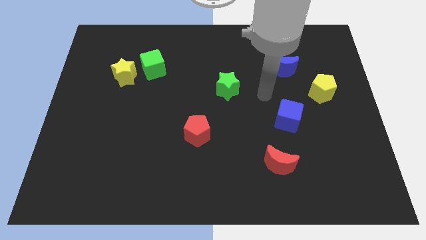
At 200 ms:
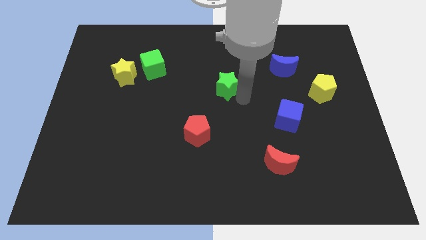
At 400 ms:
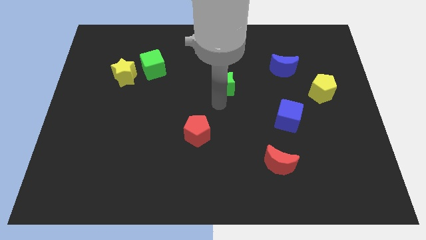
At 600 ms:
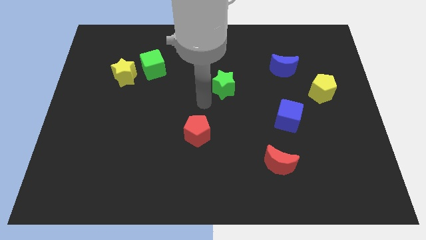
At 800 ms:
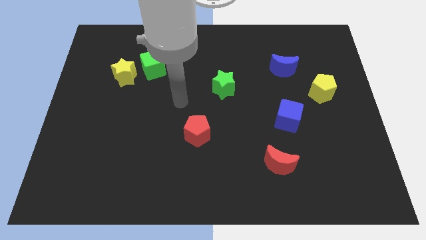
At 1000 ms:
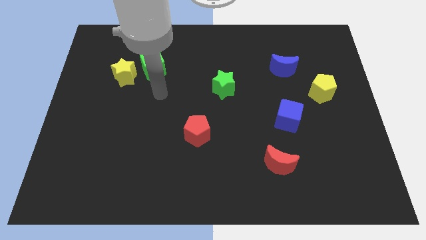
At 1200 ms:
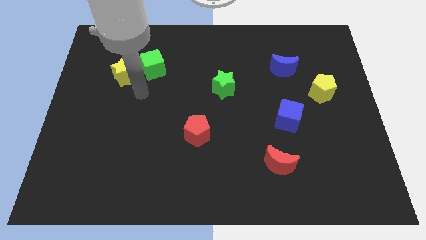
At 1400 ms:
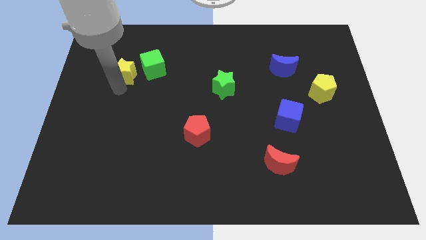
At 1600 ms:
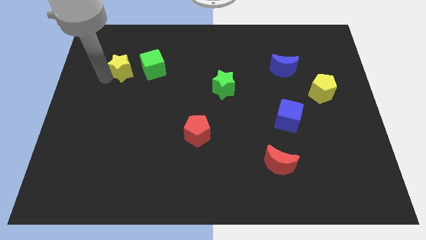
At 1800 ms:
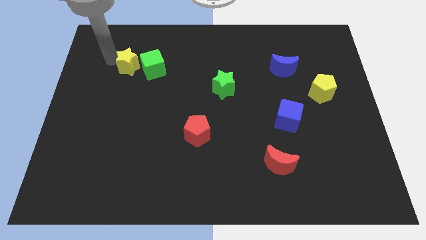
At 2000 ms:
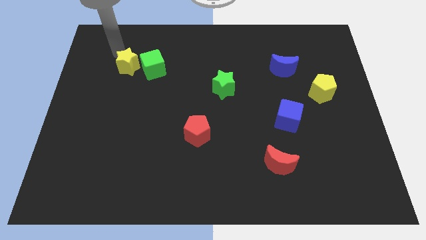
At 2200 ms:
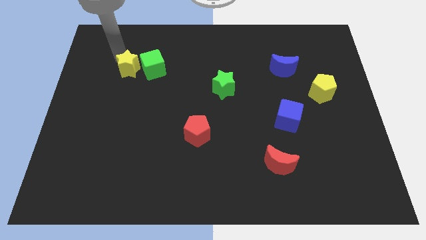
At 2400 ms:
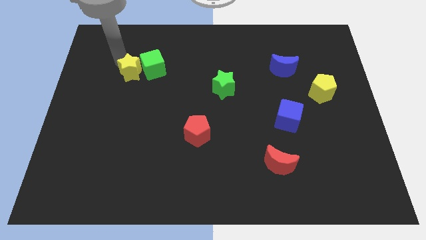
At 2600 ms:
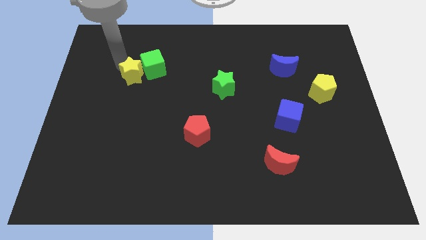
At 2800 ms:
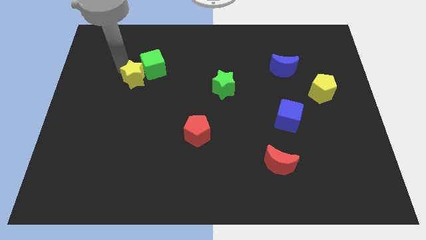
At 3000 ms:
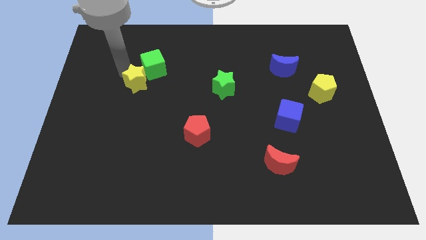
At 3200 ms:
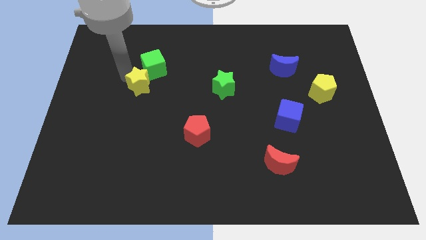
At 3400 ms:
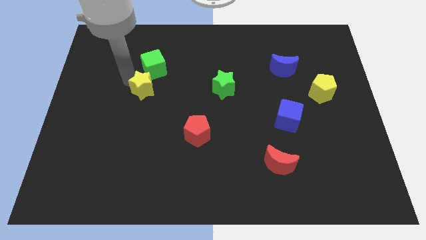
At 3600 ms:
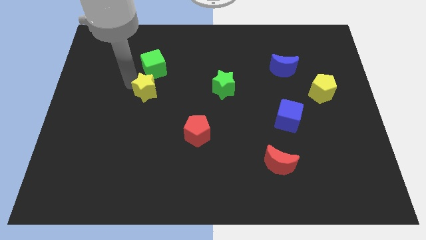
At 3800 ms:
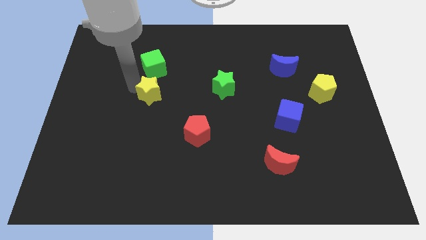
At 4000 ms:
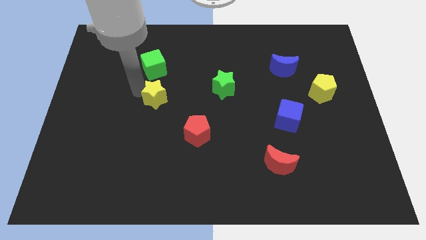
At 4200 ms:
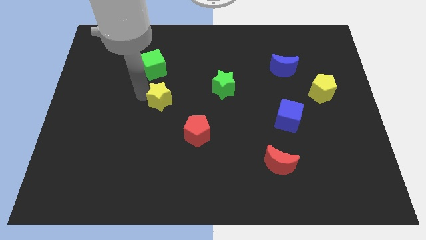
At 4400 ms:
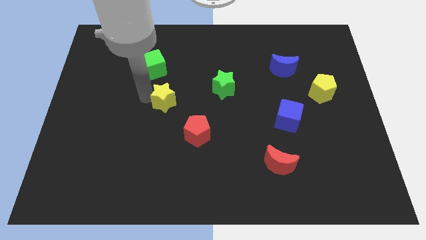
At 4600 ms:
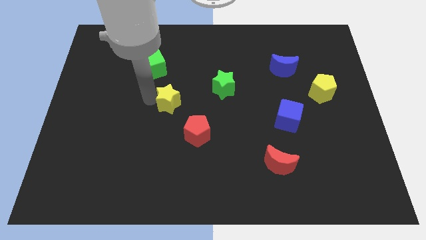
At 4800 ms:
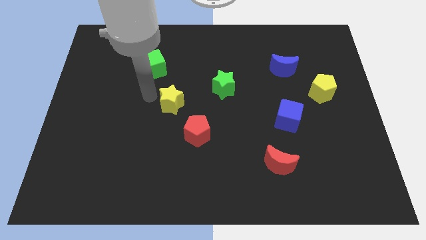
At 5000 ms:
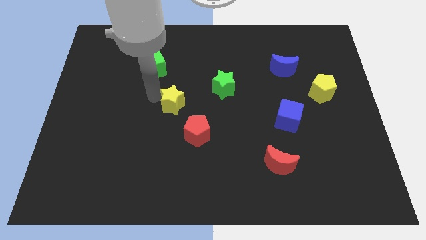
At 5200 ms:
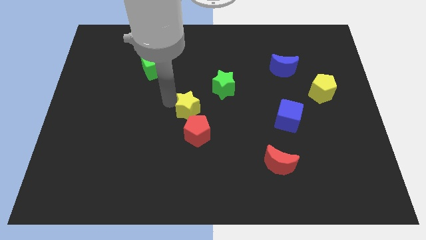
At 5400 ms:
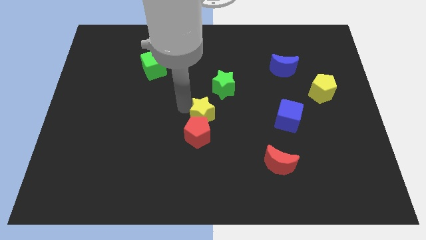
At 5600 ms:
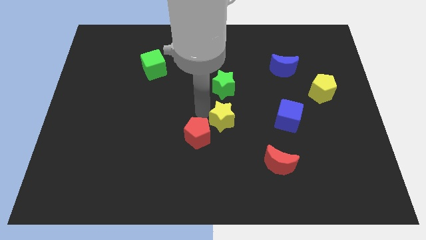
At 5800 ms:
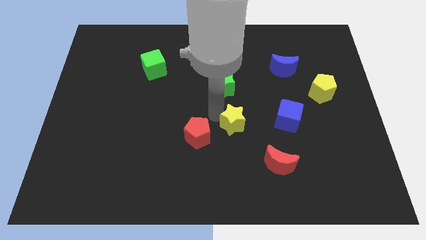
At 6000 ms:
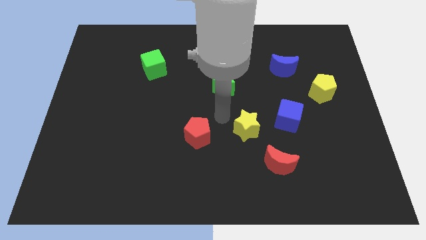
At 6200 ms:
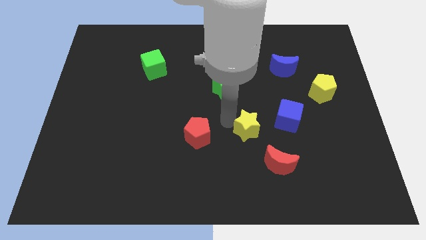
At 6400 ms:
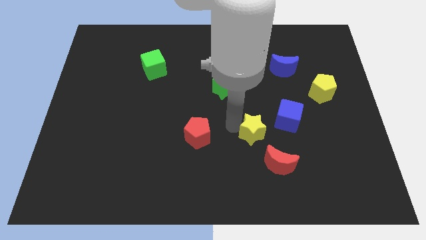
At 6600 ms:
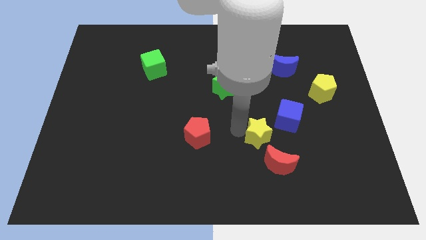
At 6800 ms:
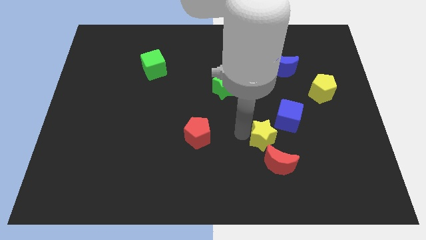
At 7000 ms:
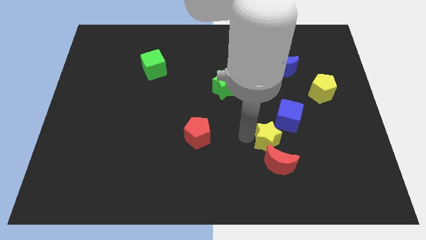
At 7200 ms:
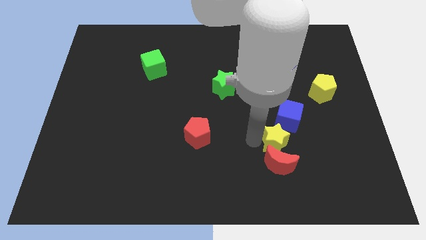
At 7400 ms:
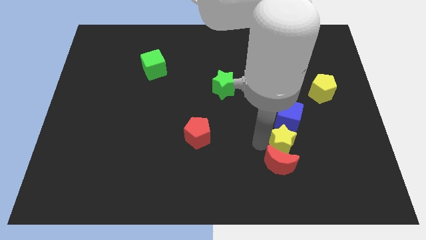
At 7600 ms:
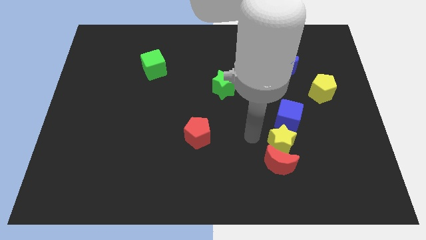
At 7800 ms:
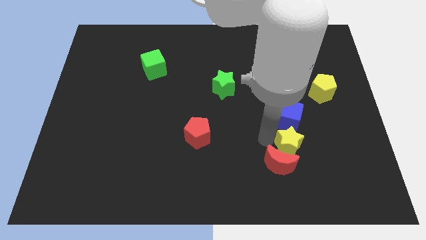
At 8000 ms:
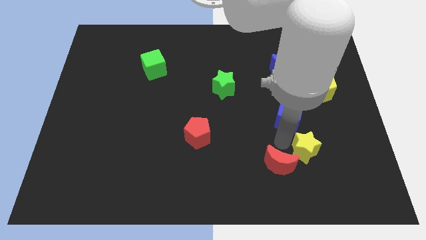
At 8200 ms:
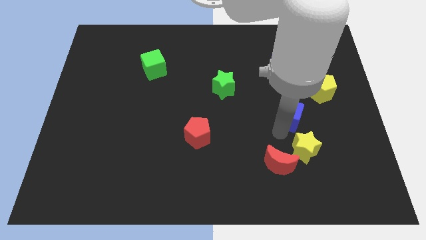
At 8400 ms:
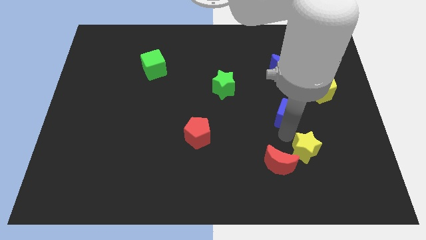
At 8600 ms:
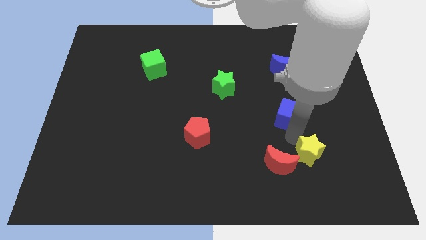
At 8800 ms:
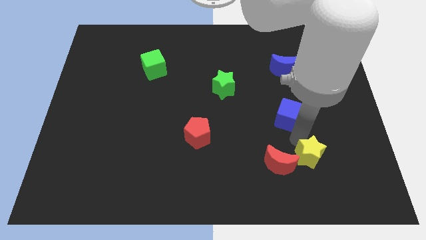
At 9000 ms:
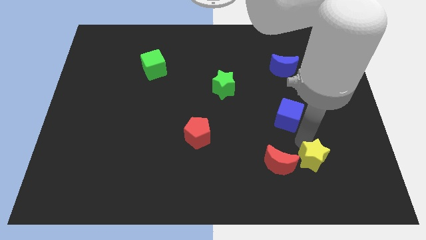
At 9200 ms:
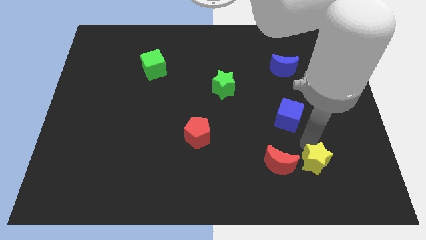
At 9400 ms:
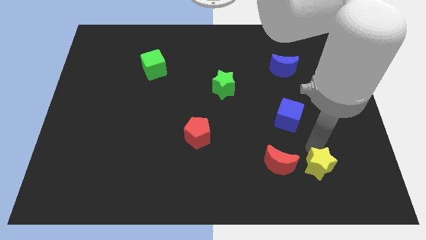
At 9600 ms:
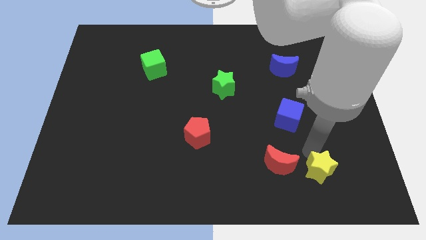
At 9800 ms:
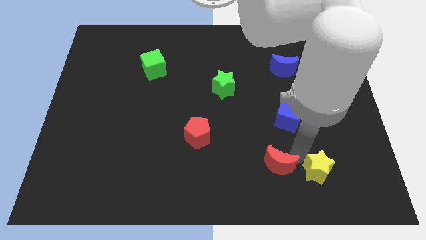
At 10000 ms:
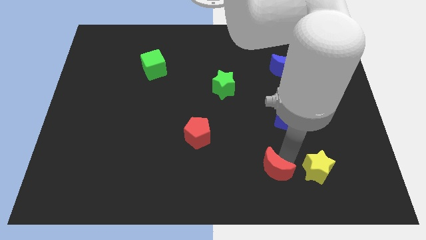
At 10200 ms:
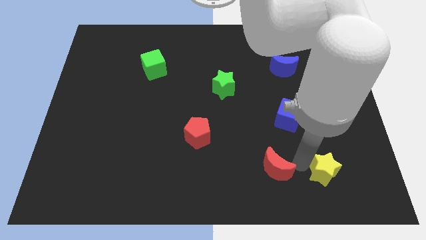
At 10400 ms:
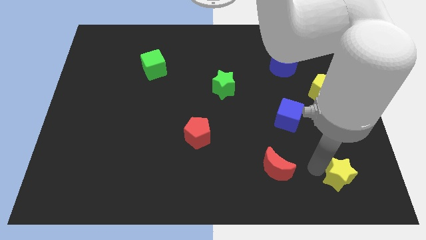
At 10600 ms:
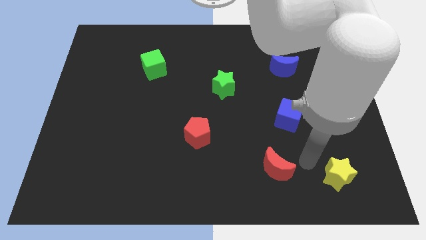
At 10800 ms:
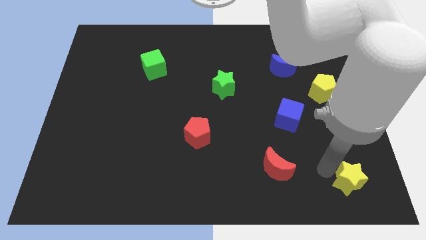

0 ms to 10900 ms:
put the yellow star to the lower right corner
